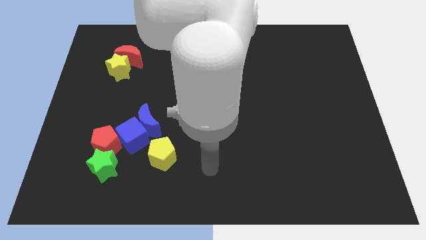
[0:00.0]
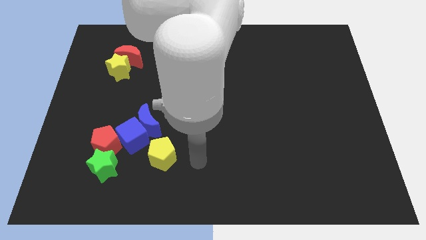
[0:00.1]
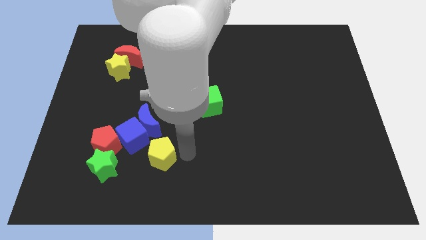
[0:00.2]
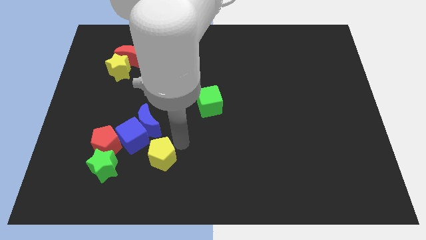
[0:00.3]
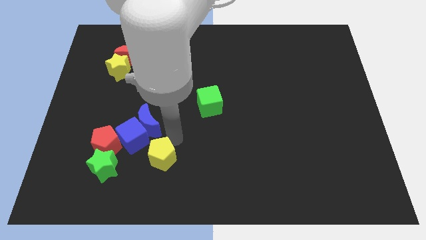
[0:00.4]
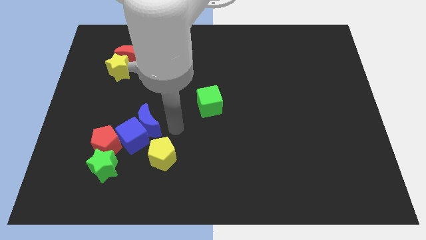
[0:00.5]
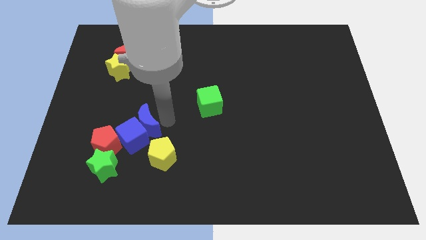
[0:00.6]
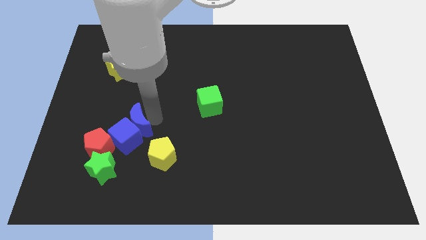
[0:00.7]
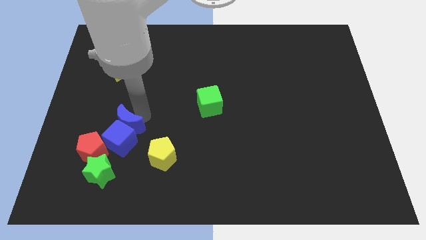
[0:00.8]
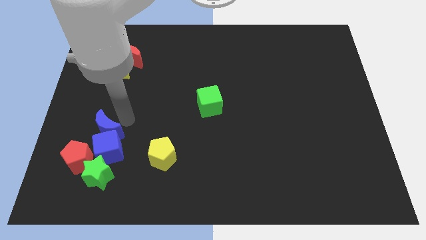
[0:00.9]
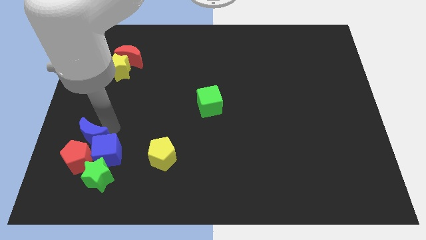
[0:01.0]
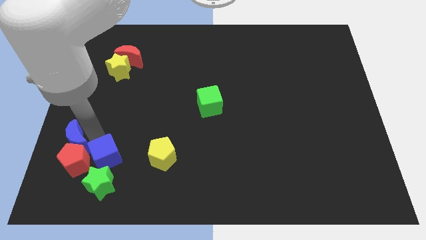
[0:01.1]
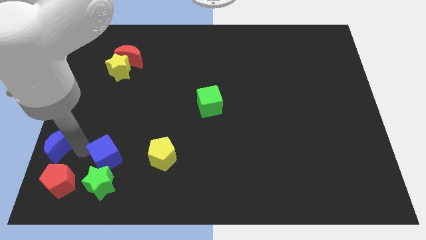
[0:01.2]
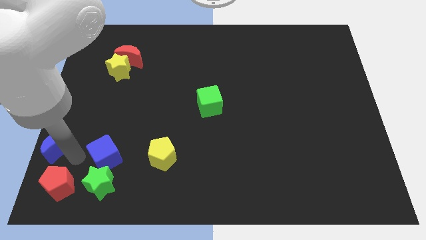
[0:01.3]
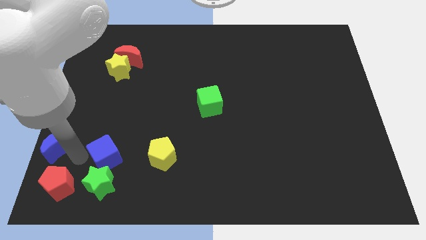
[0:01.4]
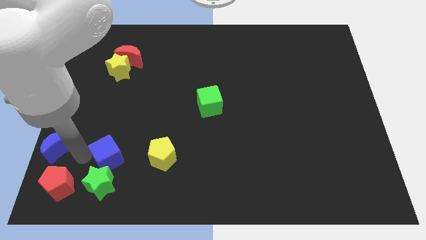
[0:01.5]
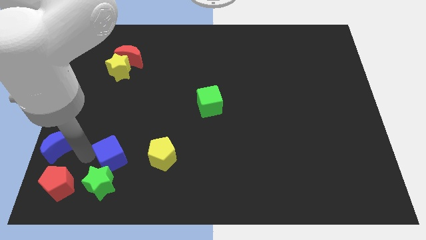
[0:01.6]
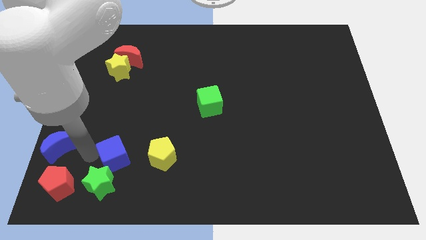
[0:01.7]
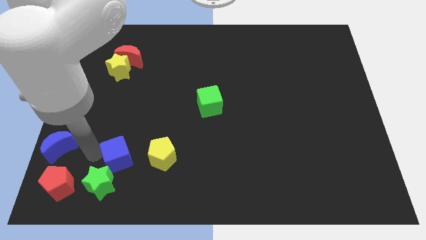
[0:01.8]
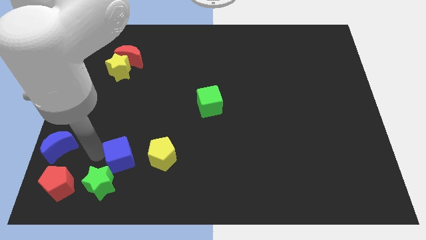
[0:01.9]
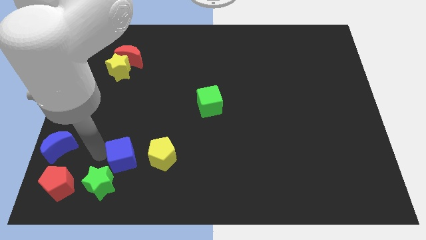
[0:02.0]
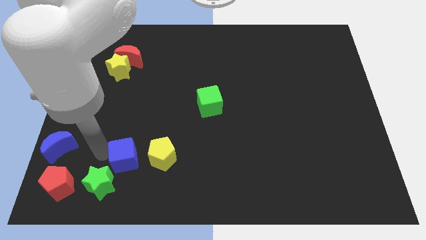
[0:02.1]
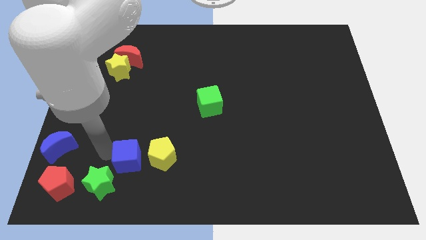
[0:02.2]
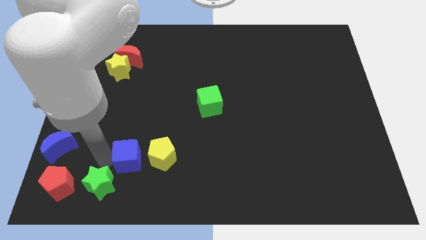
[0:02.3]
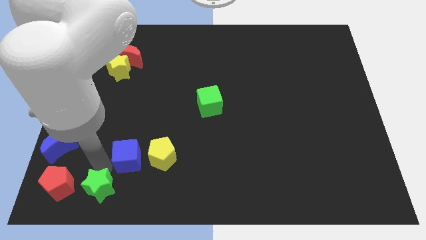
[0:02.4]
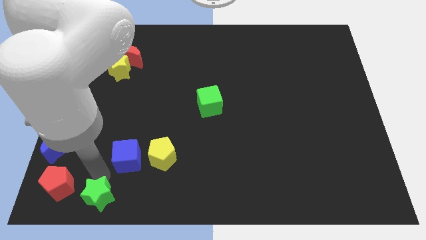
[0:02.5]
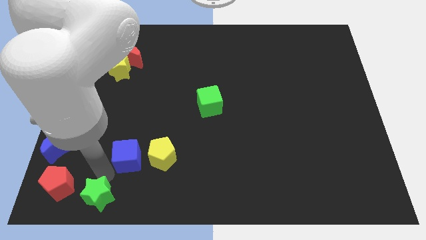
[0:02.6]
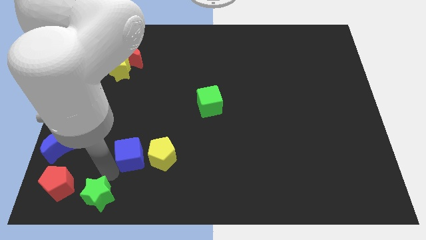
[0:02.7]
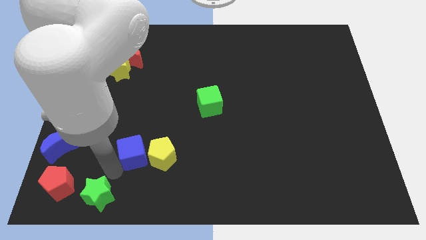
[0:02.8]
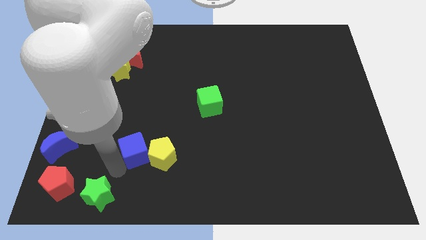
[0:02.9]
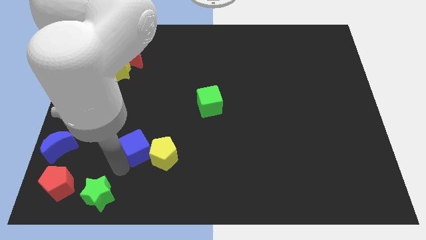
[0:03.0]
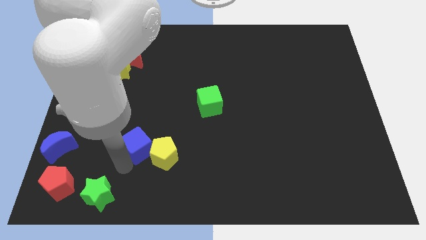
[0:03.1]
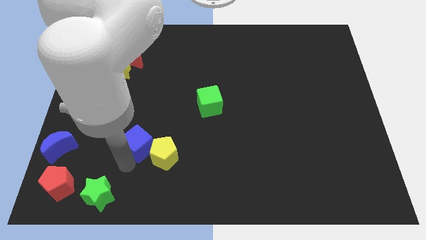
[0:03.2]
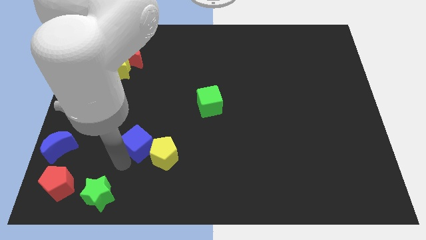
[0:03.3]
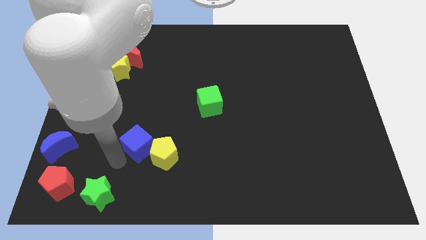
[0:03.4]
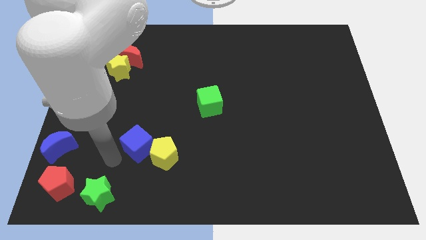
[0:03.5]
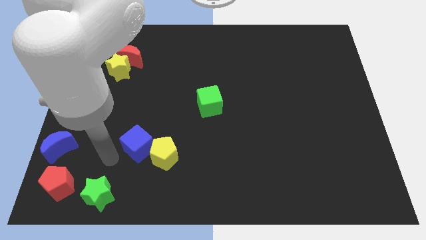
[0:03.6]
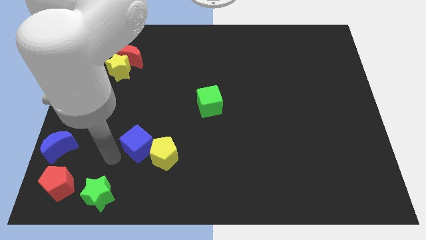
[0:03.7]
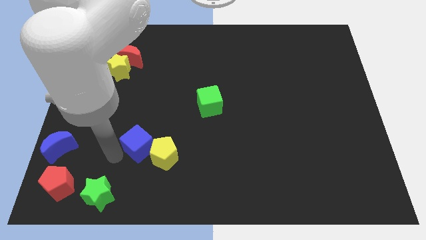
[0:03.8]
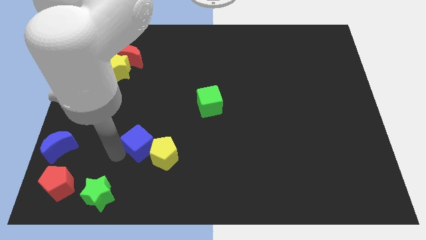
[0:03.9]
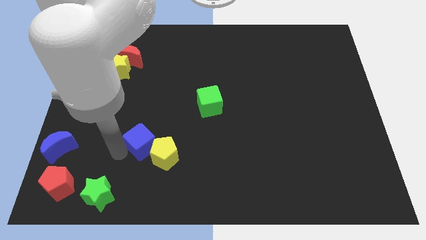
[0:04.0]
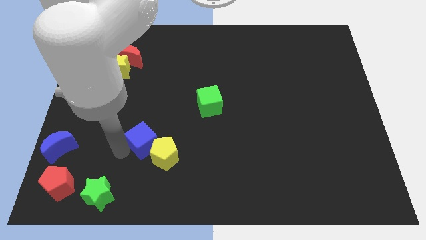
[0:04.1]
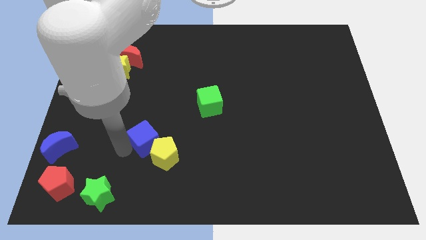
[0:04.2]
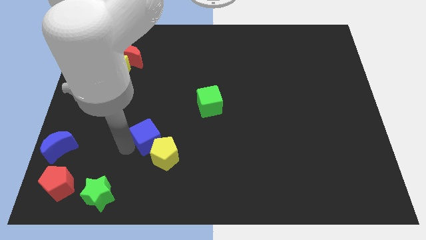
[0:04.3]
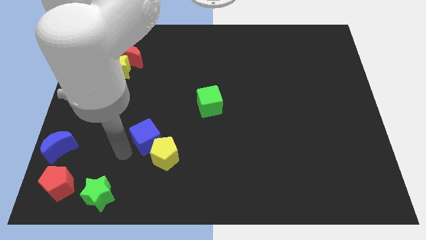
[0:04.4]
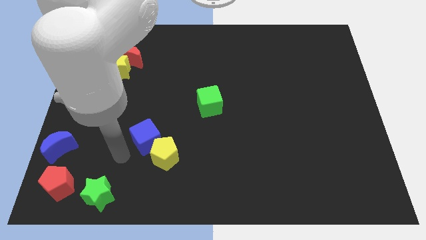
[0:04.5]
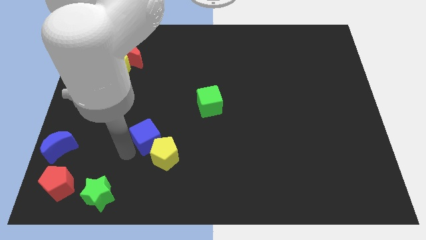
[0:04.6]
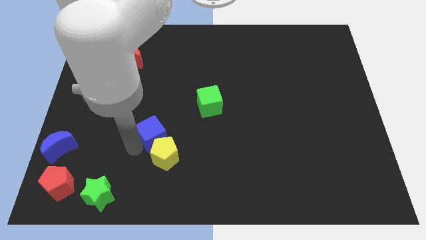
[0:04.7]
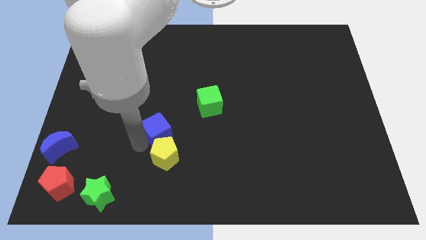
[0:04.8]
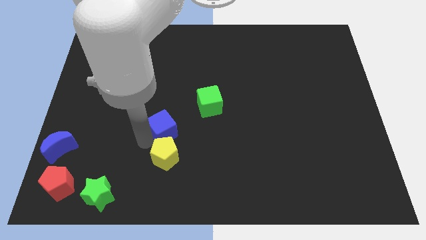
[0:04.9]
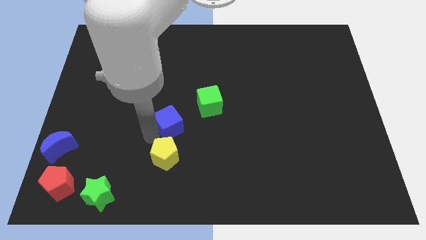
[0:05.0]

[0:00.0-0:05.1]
move the blue cube a little bit right

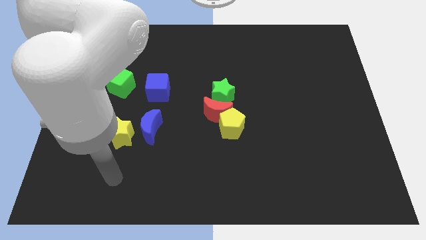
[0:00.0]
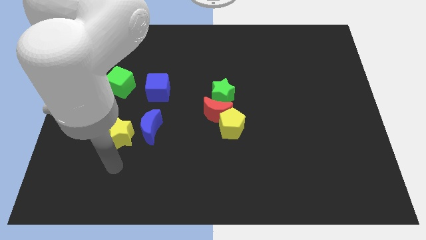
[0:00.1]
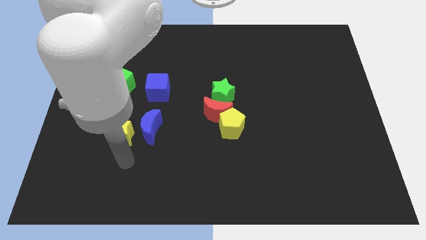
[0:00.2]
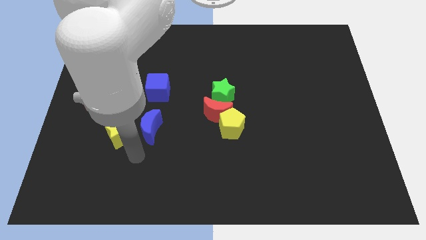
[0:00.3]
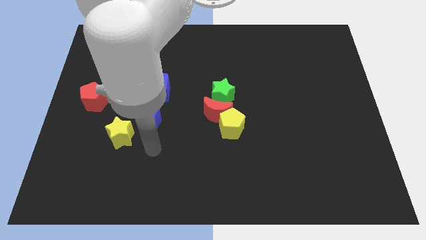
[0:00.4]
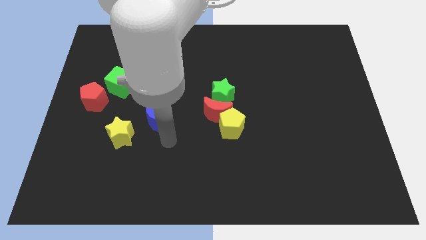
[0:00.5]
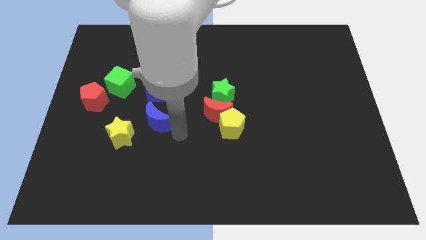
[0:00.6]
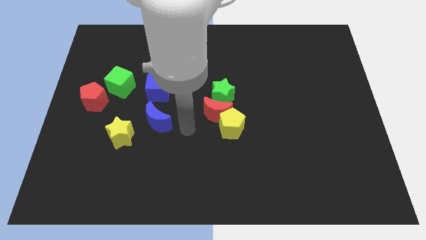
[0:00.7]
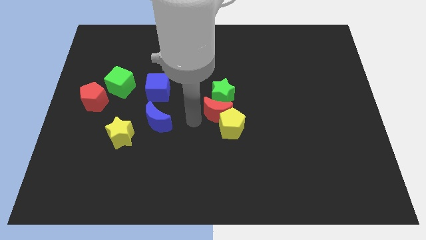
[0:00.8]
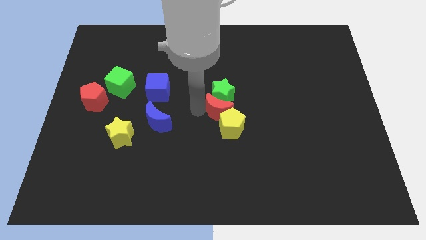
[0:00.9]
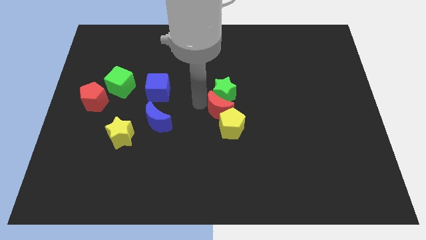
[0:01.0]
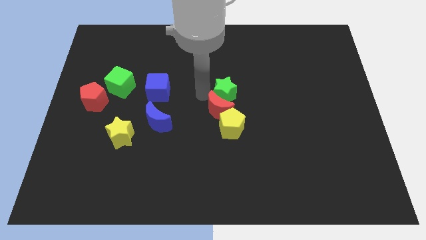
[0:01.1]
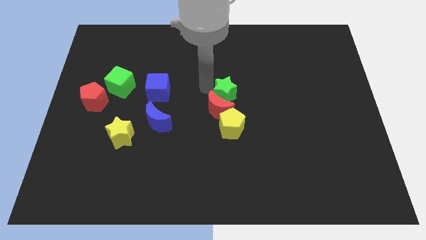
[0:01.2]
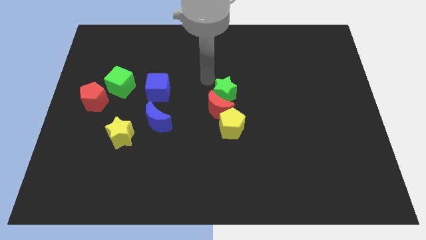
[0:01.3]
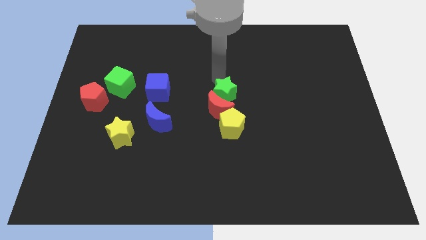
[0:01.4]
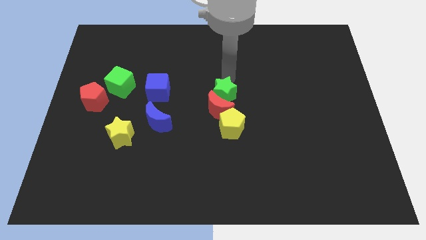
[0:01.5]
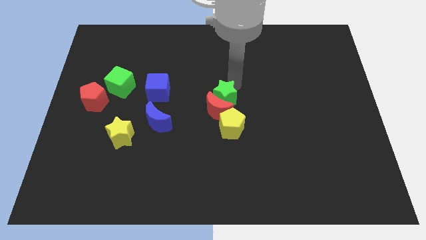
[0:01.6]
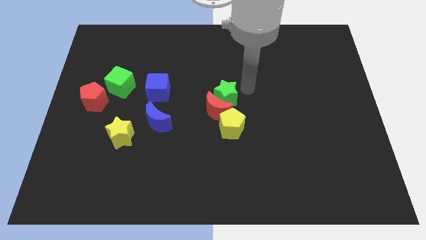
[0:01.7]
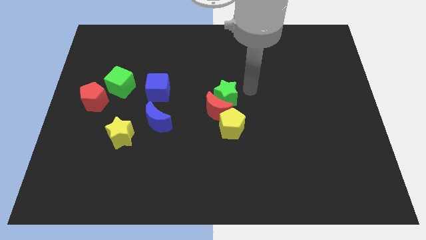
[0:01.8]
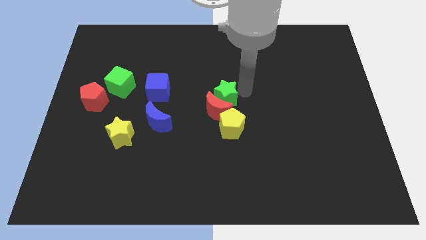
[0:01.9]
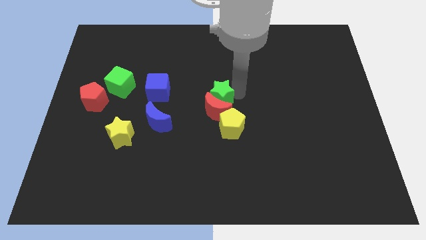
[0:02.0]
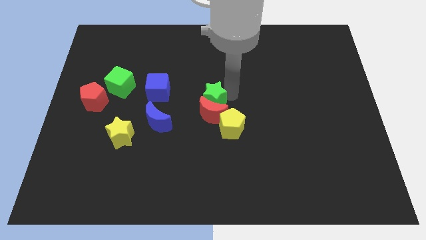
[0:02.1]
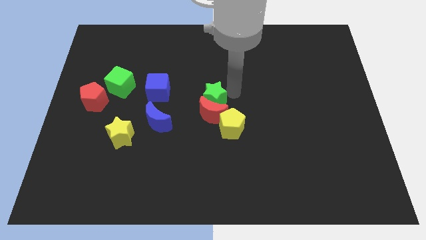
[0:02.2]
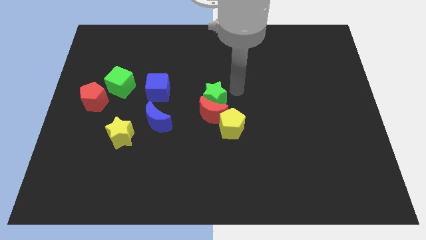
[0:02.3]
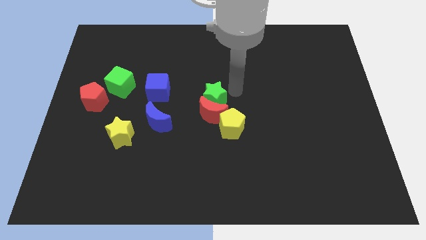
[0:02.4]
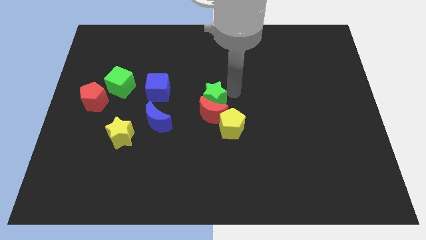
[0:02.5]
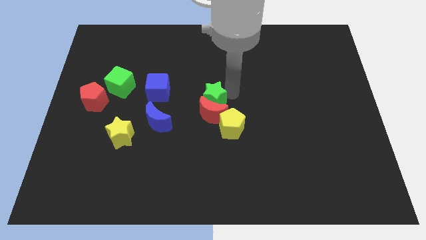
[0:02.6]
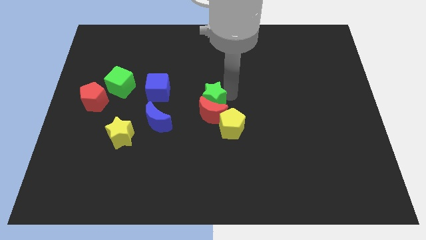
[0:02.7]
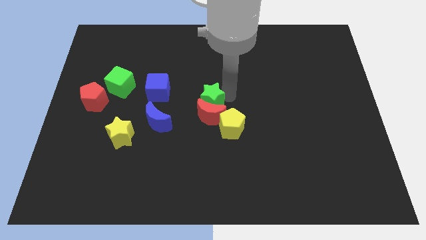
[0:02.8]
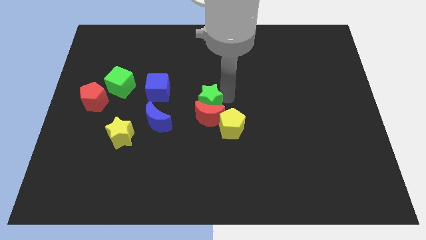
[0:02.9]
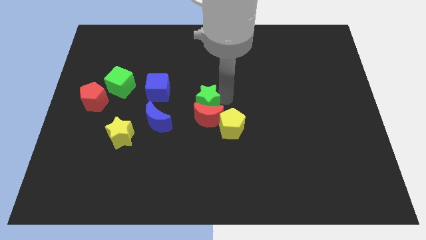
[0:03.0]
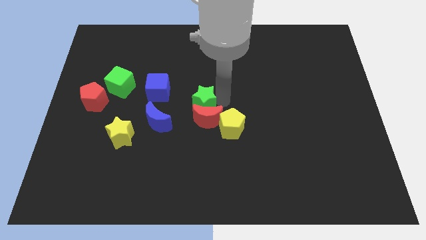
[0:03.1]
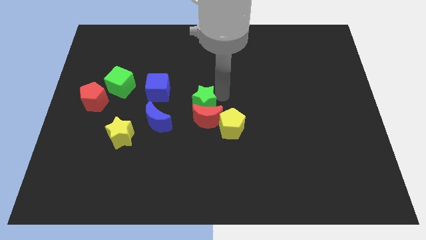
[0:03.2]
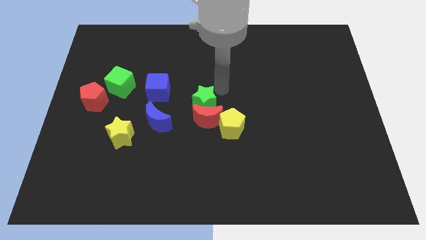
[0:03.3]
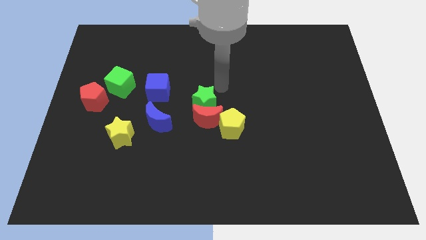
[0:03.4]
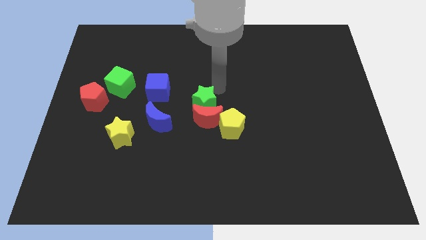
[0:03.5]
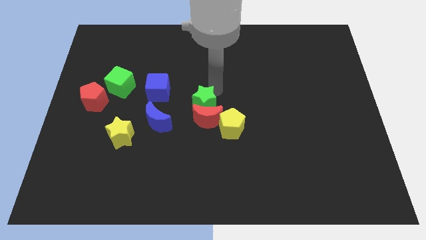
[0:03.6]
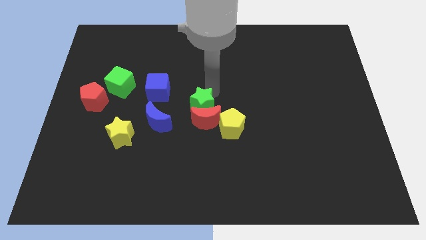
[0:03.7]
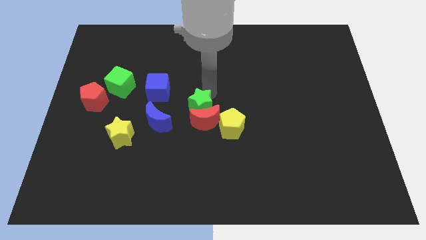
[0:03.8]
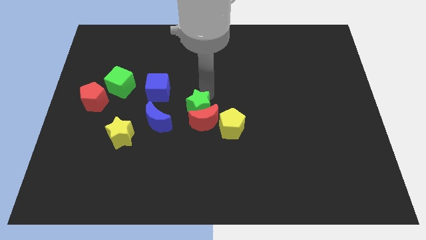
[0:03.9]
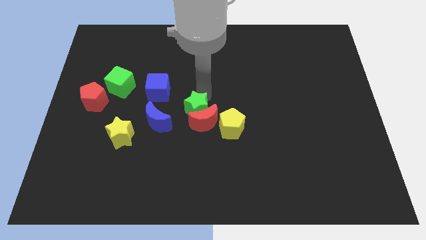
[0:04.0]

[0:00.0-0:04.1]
move the green star somewhat diagonally down and to the left
